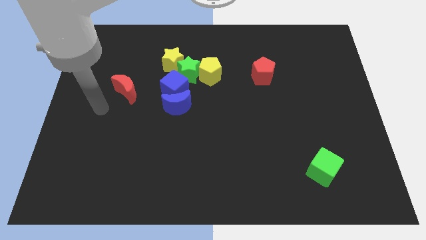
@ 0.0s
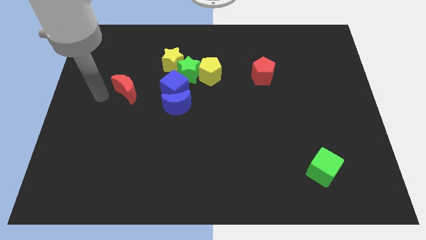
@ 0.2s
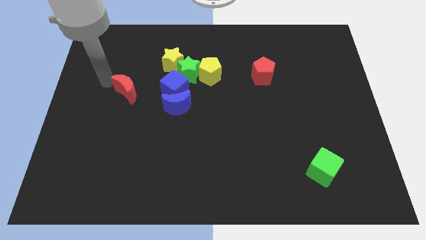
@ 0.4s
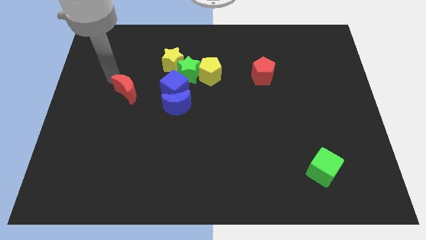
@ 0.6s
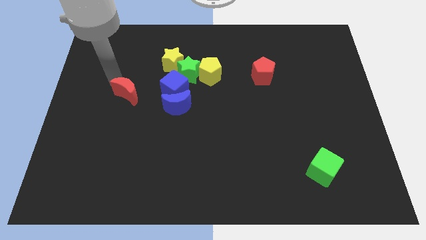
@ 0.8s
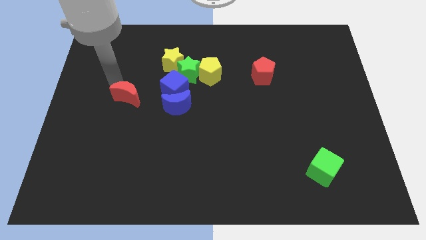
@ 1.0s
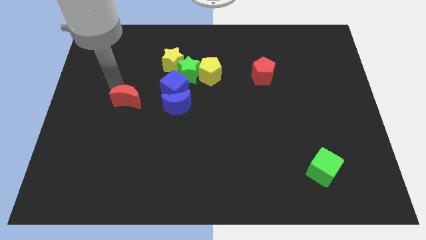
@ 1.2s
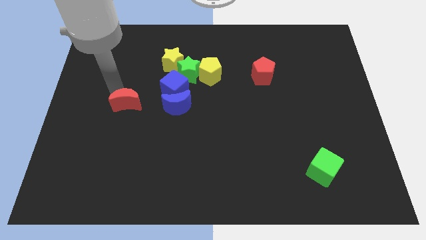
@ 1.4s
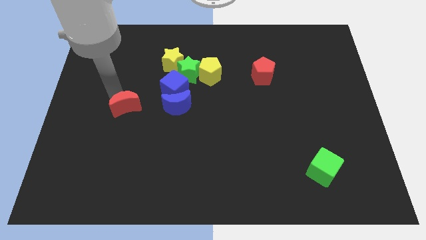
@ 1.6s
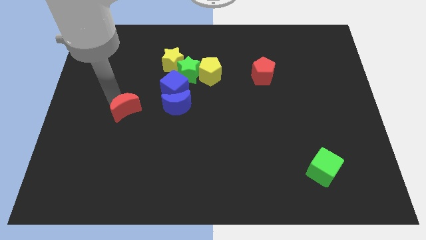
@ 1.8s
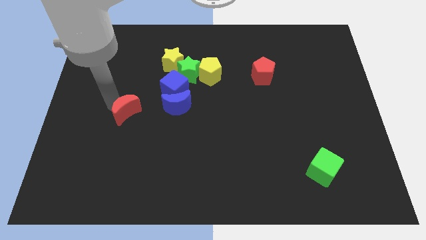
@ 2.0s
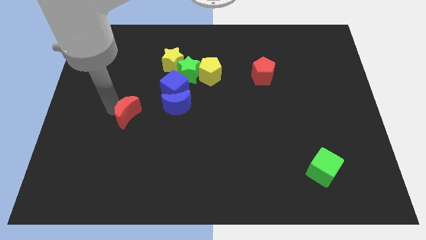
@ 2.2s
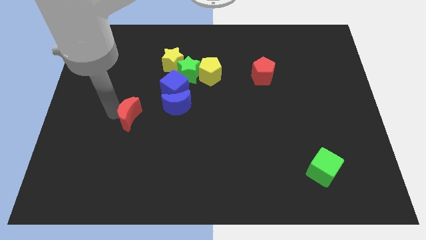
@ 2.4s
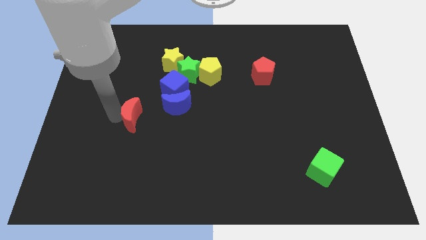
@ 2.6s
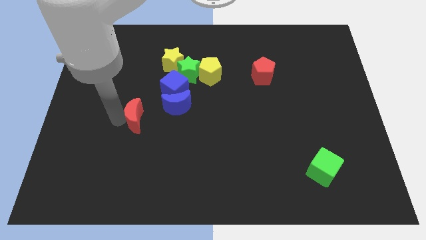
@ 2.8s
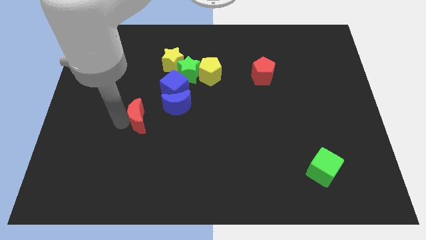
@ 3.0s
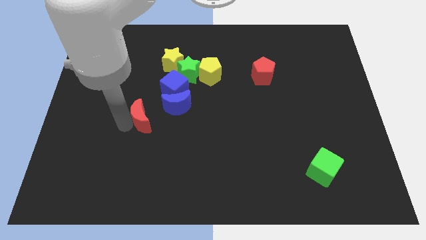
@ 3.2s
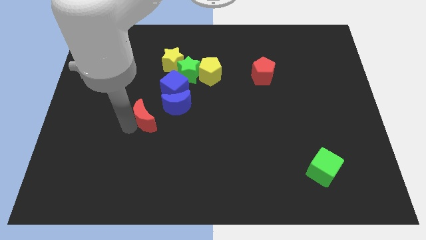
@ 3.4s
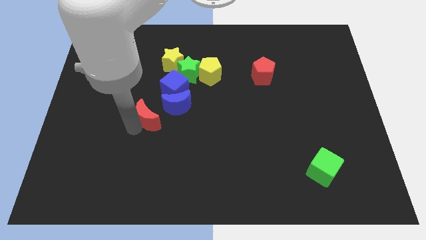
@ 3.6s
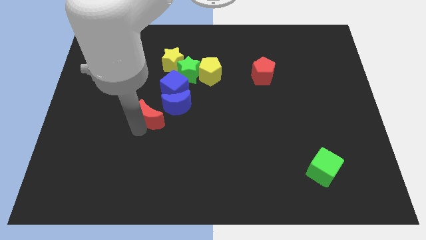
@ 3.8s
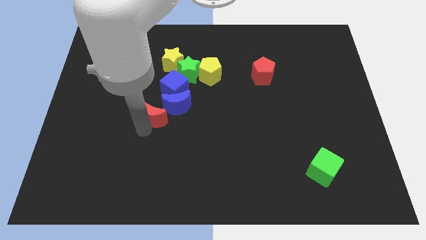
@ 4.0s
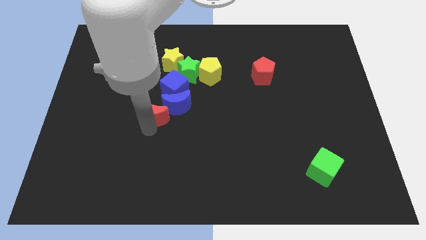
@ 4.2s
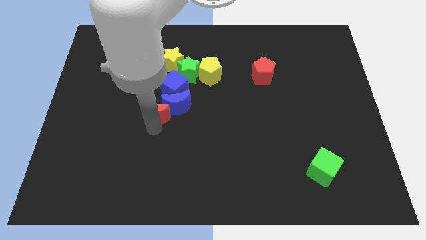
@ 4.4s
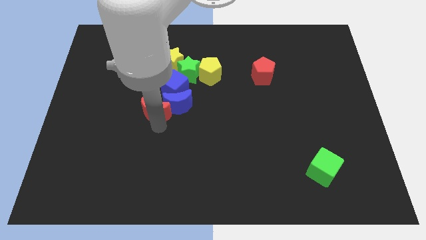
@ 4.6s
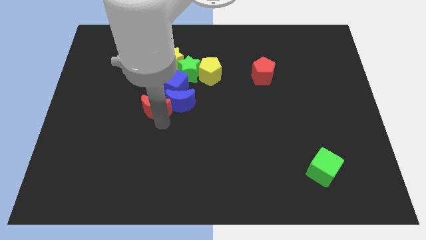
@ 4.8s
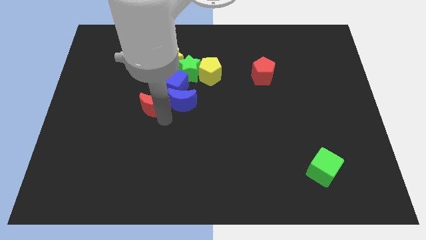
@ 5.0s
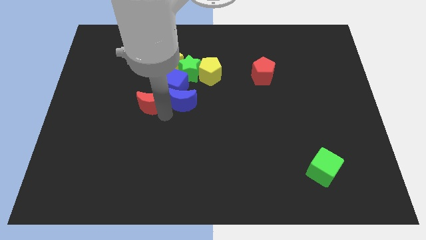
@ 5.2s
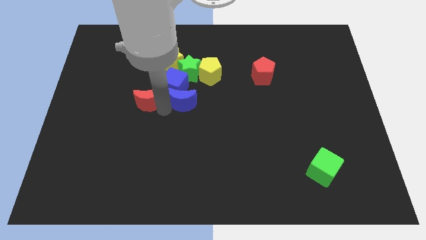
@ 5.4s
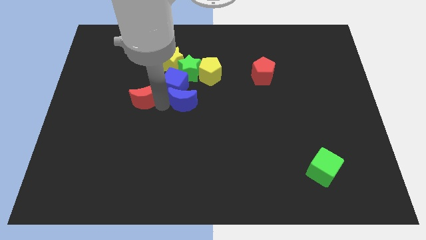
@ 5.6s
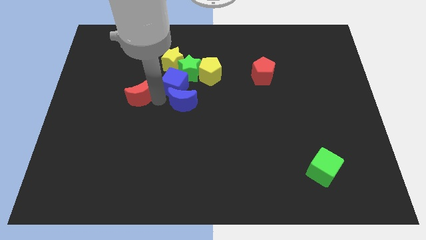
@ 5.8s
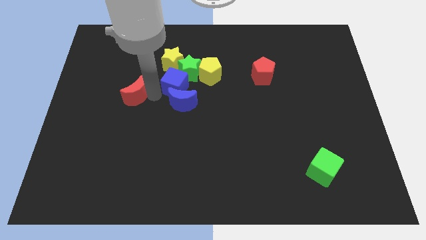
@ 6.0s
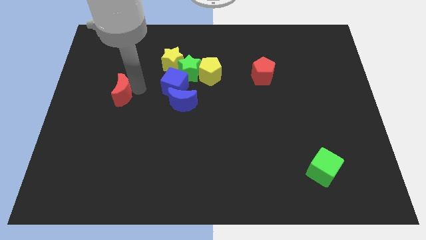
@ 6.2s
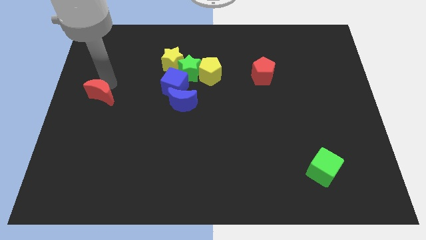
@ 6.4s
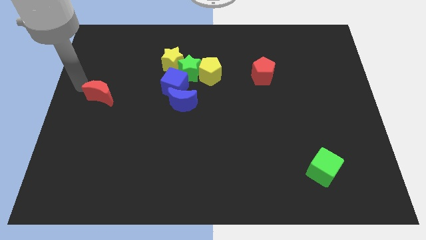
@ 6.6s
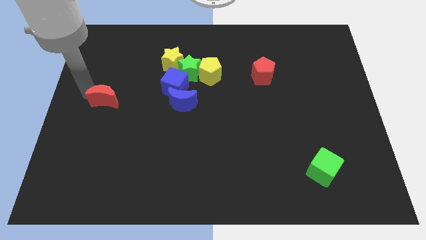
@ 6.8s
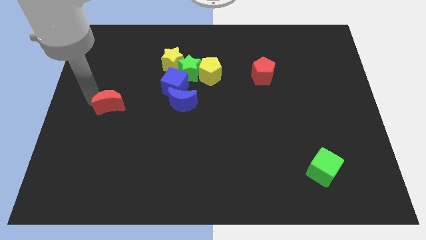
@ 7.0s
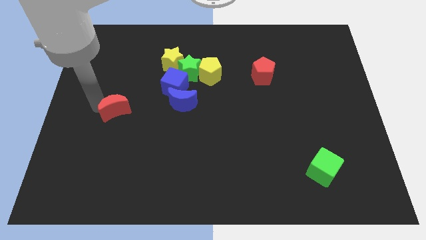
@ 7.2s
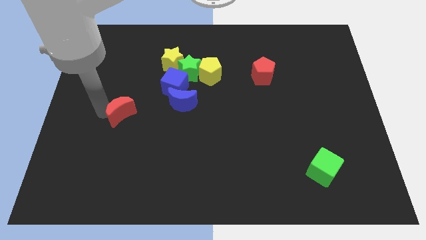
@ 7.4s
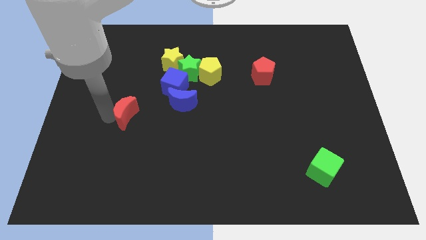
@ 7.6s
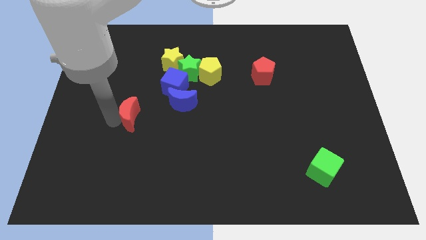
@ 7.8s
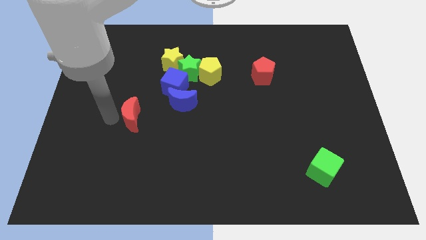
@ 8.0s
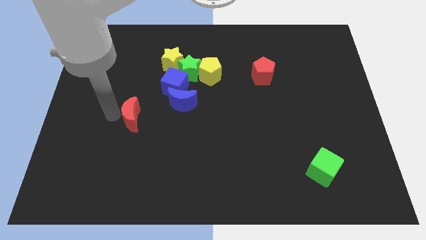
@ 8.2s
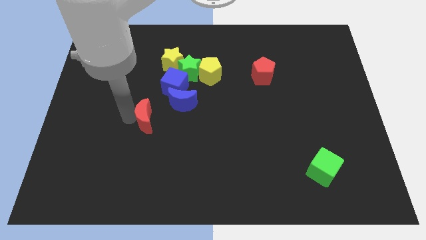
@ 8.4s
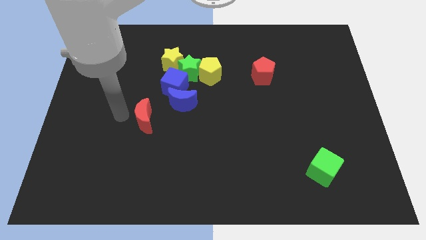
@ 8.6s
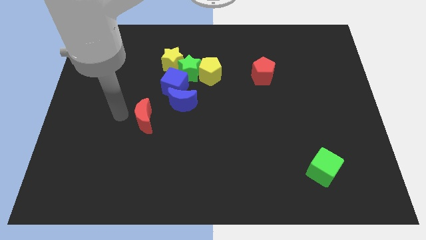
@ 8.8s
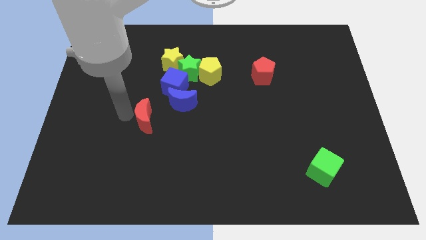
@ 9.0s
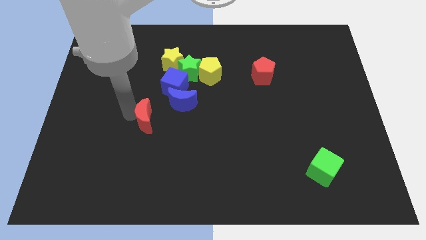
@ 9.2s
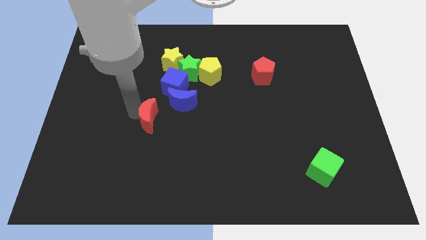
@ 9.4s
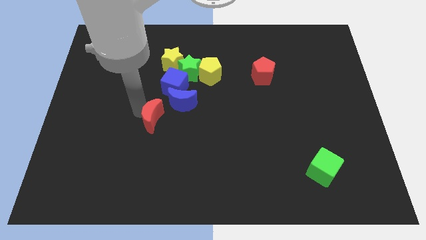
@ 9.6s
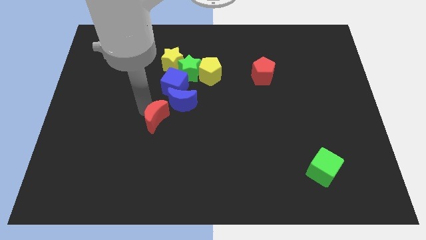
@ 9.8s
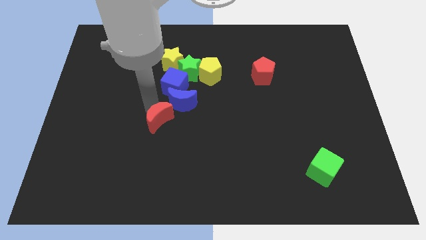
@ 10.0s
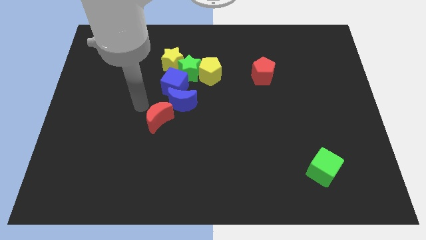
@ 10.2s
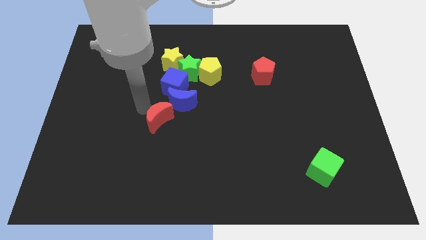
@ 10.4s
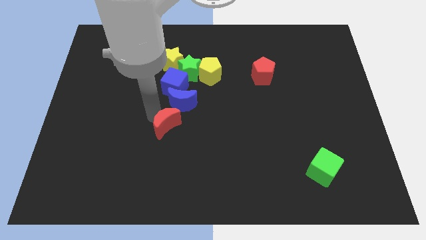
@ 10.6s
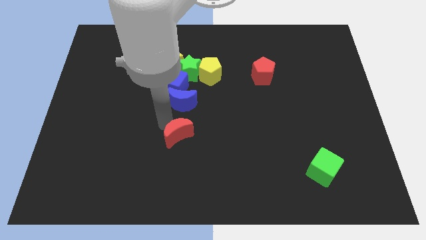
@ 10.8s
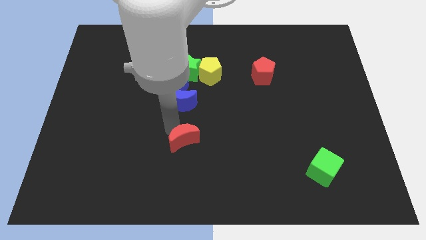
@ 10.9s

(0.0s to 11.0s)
push the red moon downwards and right diagonally

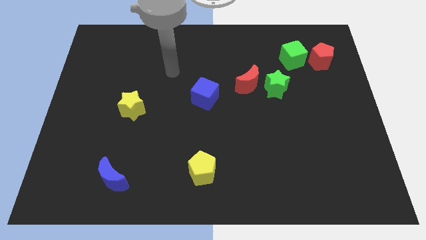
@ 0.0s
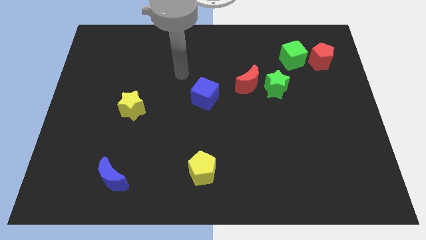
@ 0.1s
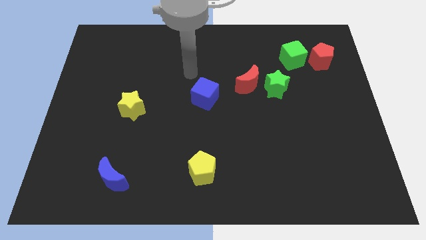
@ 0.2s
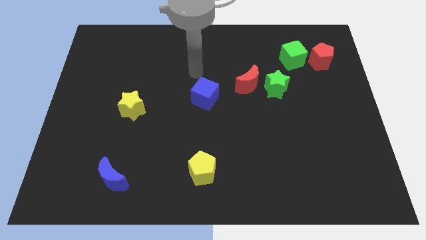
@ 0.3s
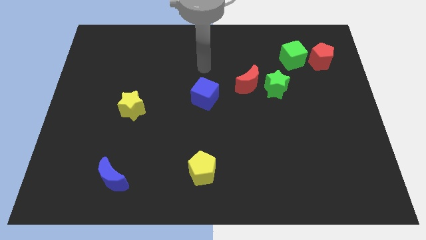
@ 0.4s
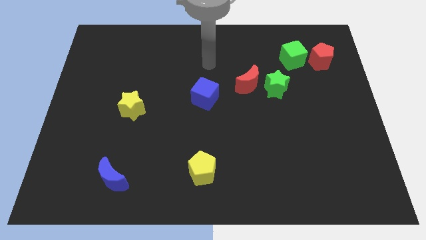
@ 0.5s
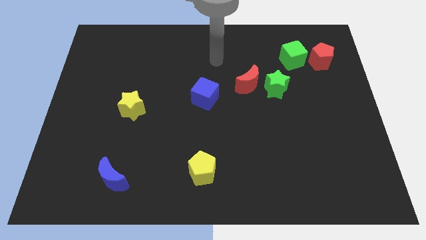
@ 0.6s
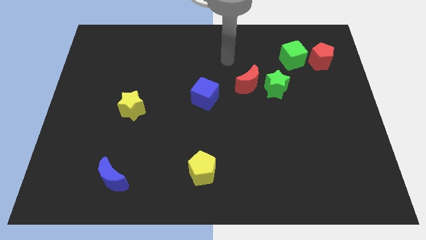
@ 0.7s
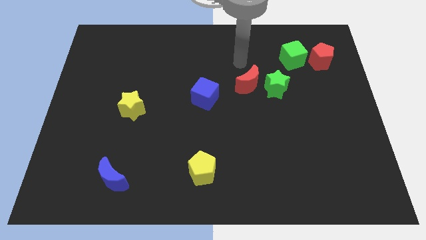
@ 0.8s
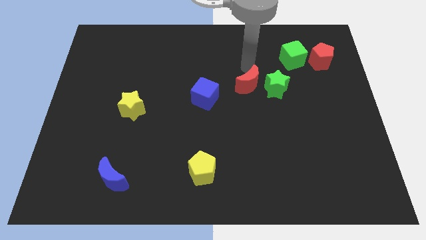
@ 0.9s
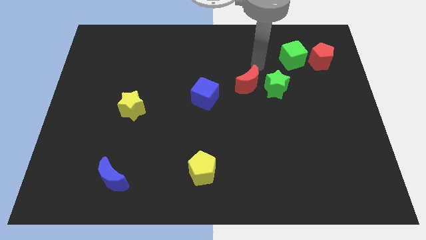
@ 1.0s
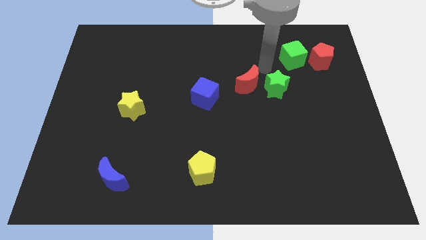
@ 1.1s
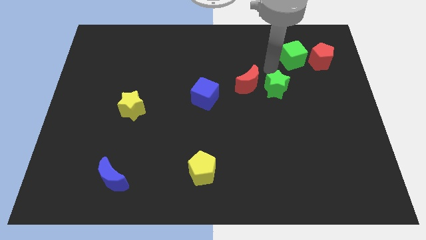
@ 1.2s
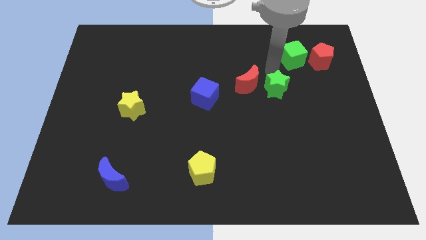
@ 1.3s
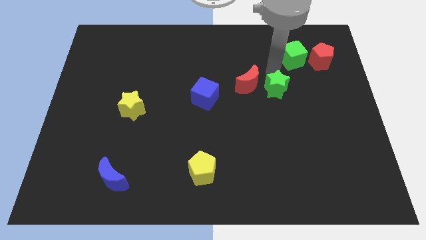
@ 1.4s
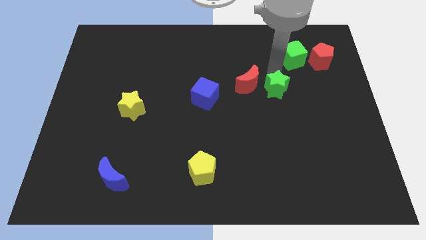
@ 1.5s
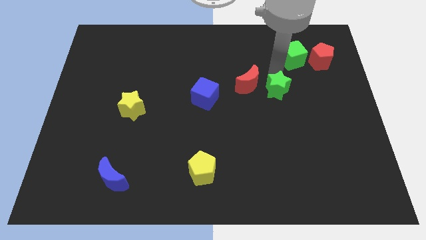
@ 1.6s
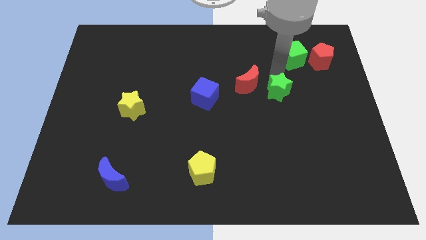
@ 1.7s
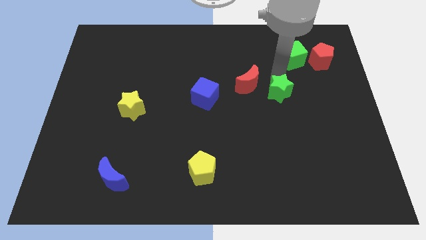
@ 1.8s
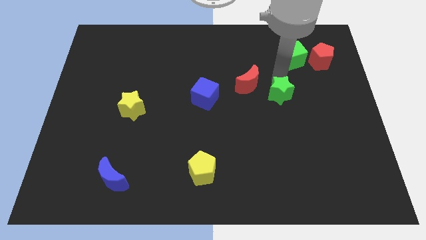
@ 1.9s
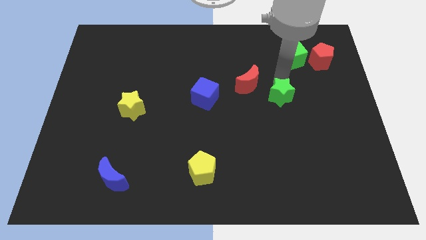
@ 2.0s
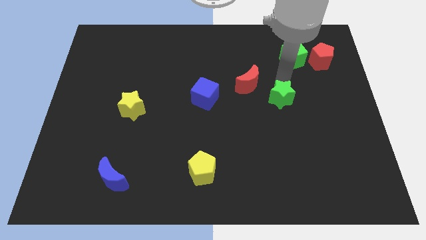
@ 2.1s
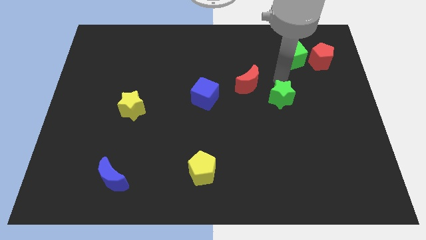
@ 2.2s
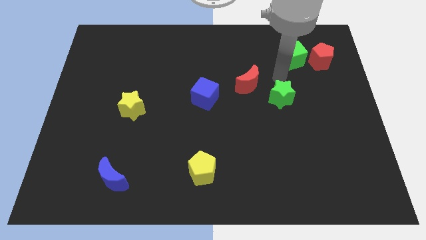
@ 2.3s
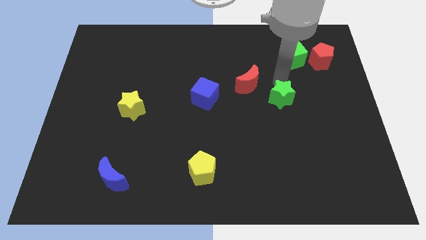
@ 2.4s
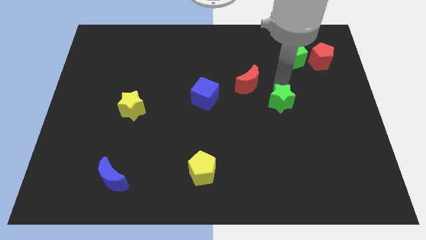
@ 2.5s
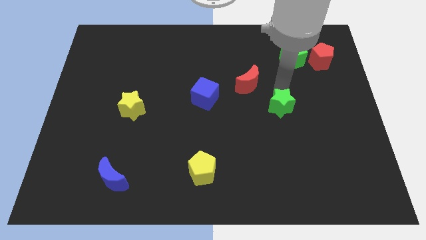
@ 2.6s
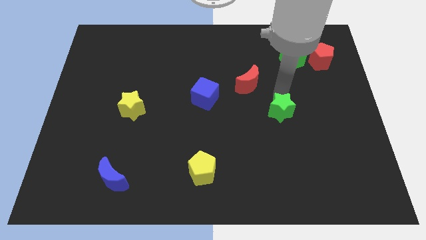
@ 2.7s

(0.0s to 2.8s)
slightly push the green star down

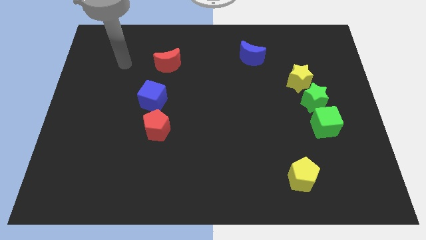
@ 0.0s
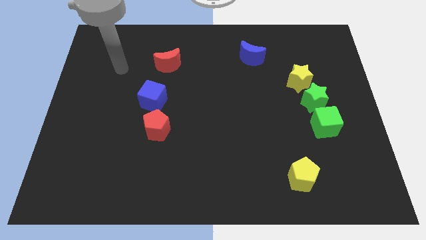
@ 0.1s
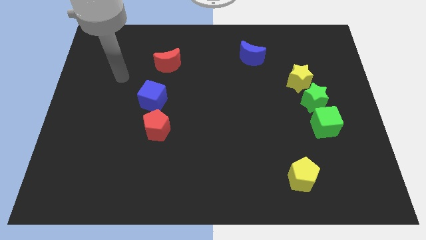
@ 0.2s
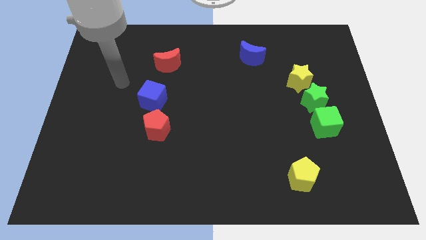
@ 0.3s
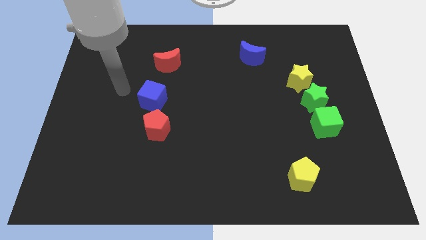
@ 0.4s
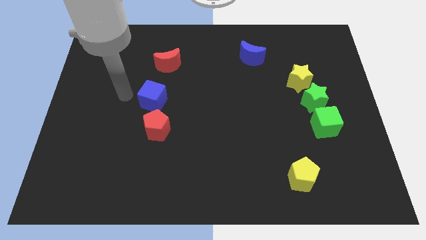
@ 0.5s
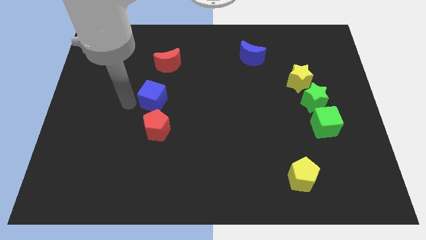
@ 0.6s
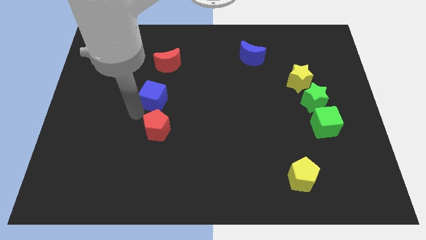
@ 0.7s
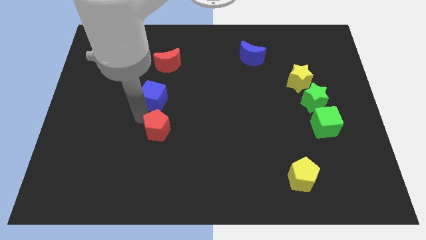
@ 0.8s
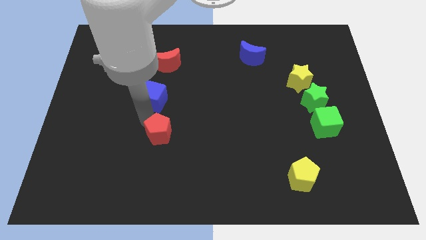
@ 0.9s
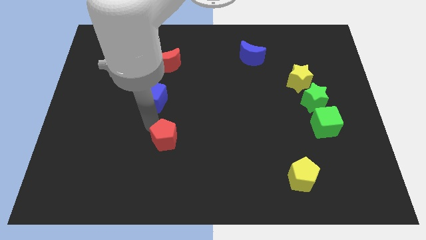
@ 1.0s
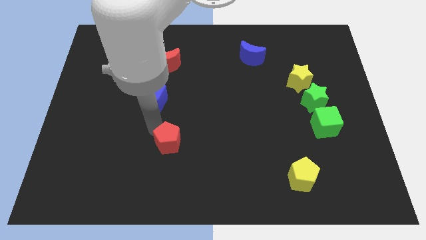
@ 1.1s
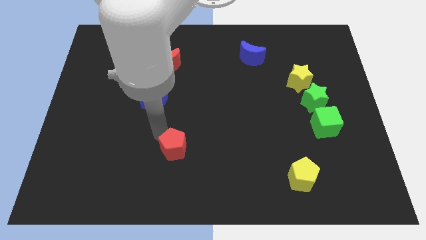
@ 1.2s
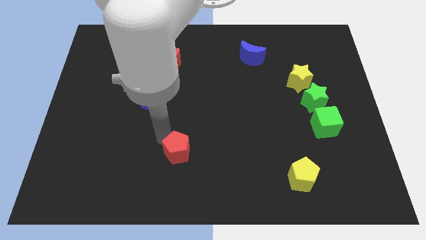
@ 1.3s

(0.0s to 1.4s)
push the red pentagon down and then to the right slightly
